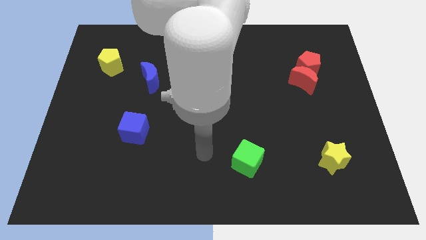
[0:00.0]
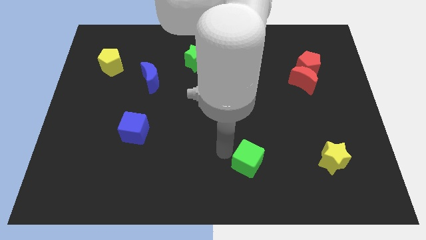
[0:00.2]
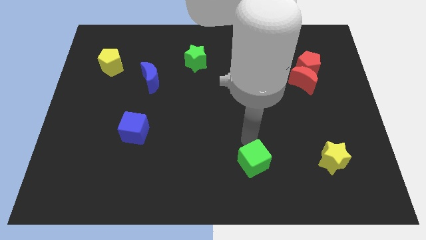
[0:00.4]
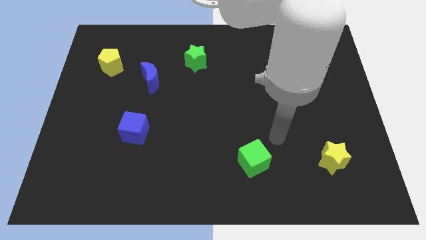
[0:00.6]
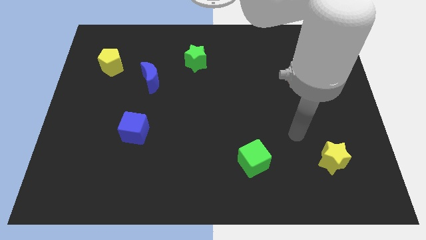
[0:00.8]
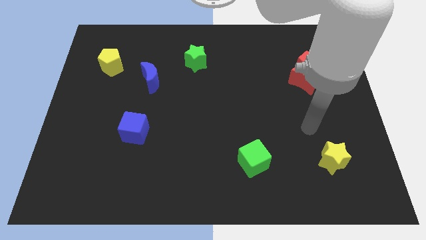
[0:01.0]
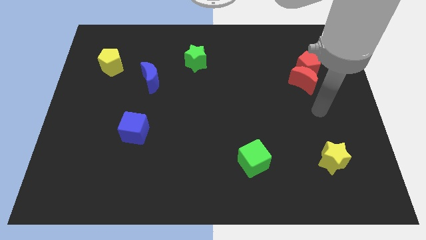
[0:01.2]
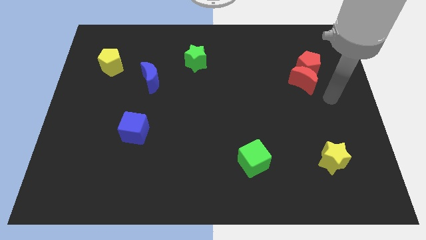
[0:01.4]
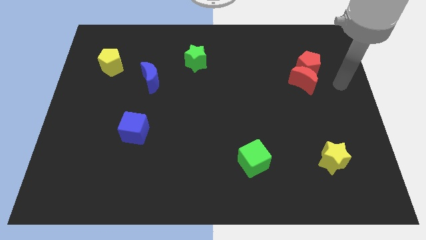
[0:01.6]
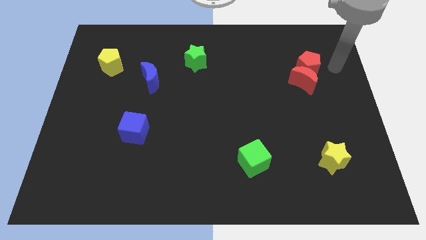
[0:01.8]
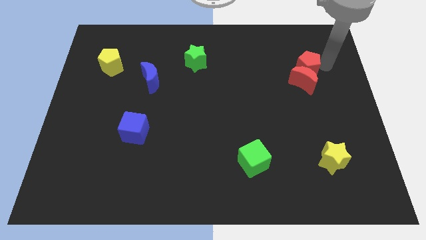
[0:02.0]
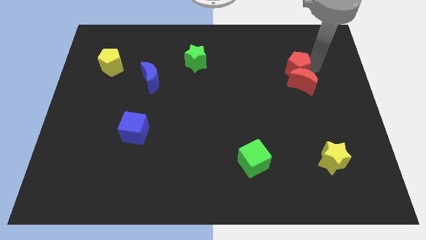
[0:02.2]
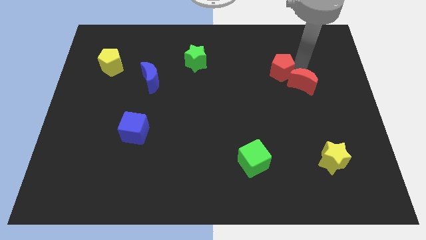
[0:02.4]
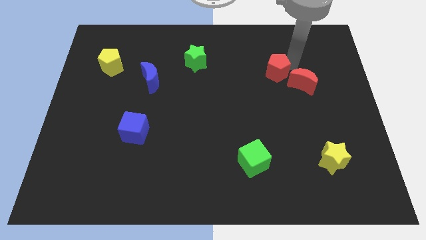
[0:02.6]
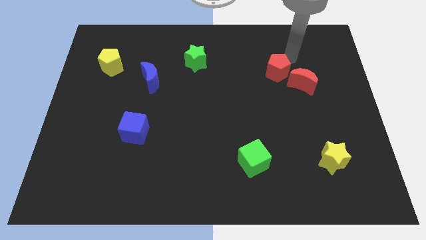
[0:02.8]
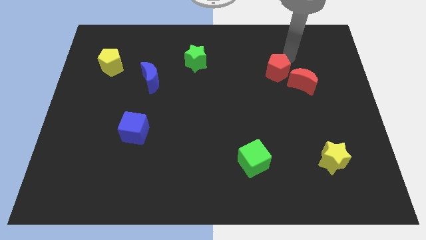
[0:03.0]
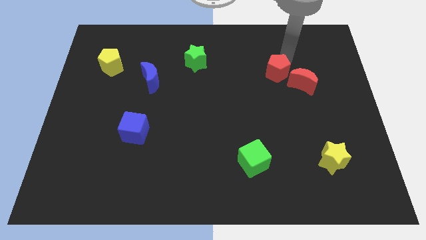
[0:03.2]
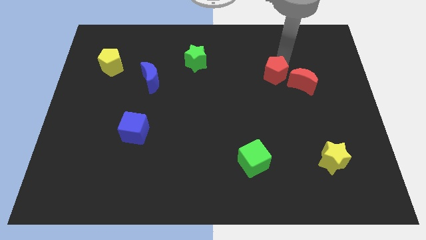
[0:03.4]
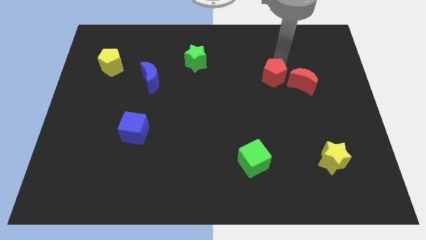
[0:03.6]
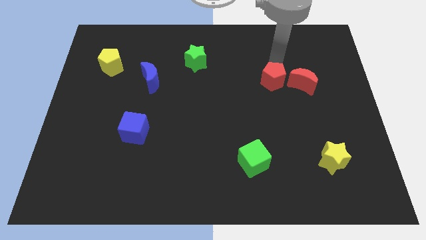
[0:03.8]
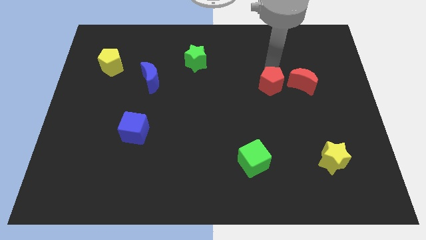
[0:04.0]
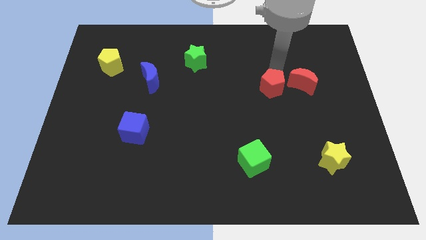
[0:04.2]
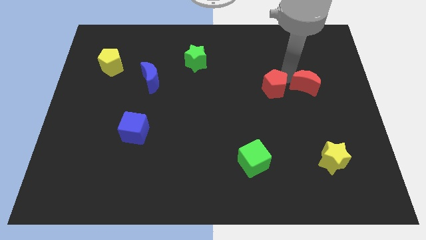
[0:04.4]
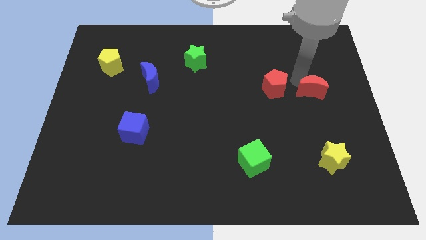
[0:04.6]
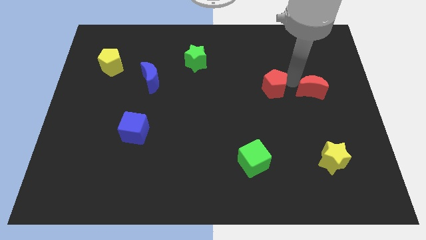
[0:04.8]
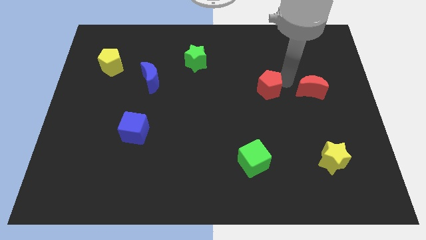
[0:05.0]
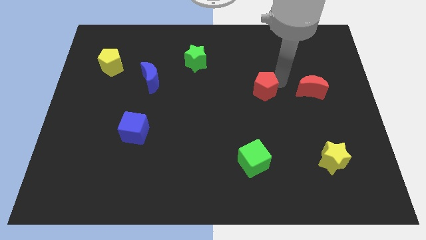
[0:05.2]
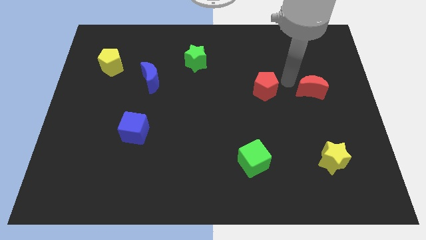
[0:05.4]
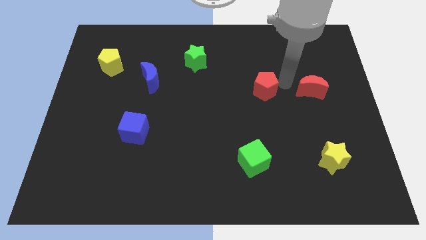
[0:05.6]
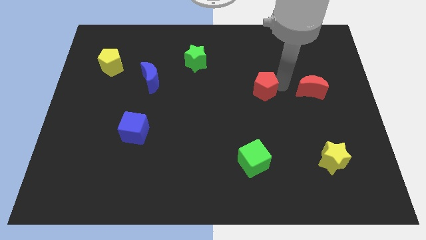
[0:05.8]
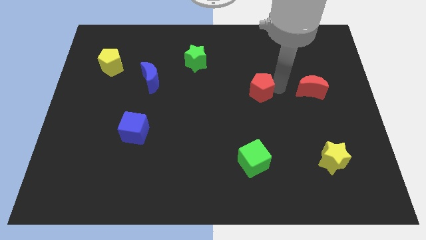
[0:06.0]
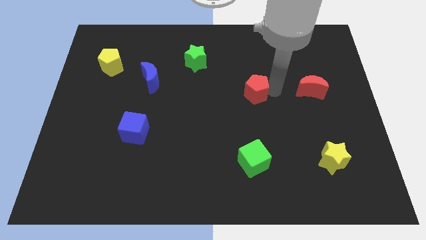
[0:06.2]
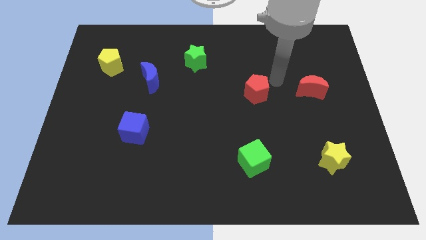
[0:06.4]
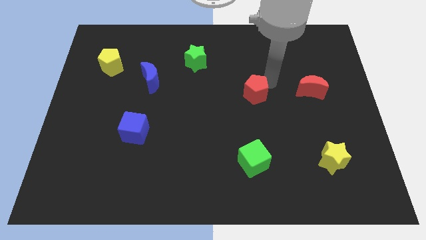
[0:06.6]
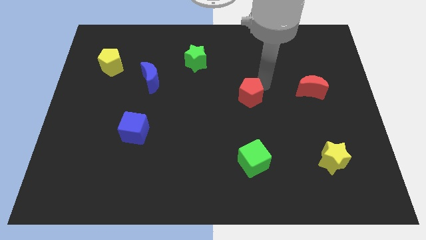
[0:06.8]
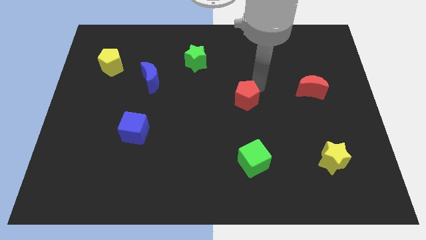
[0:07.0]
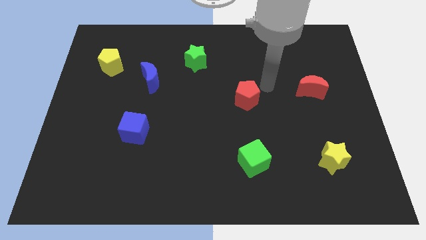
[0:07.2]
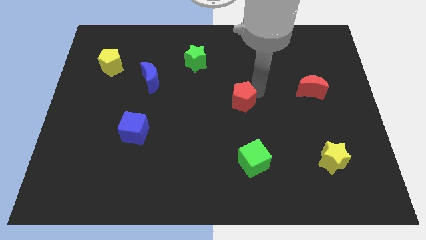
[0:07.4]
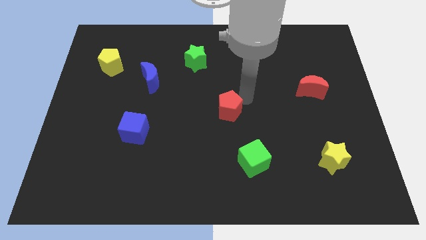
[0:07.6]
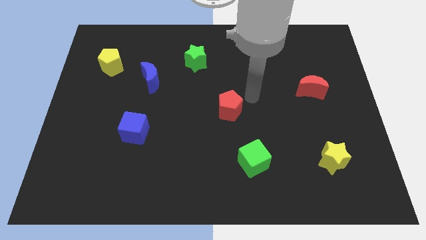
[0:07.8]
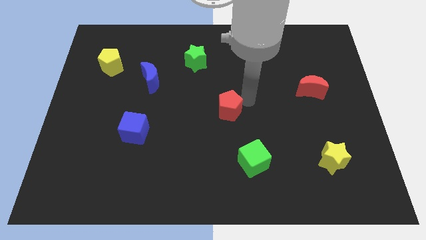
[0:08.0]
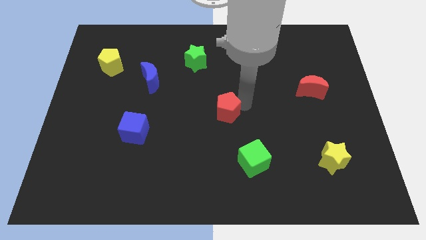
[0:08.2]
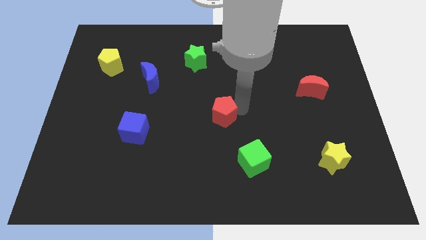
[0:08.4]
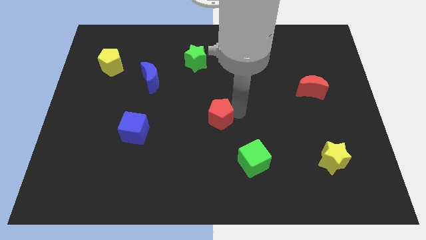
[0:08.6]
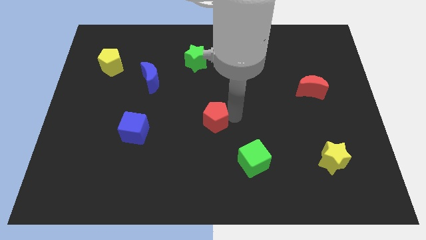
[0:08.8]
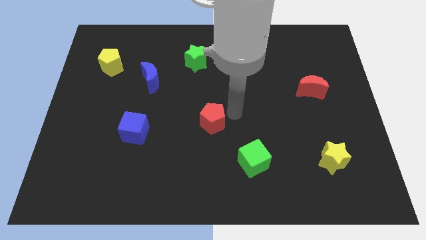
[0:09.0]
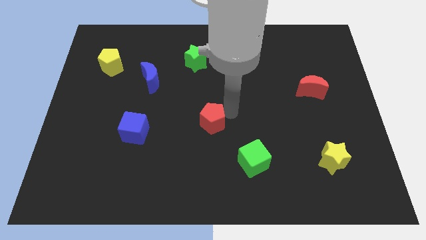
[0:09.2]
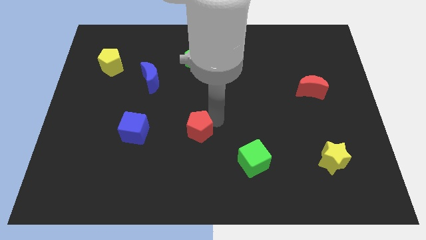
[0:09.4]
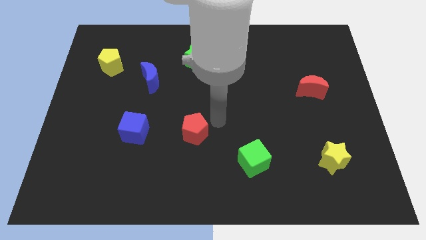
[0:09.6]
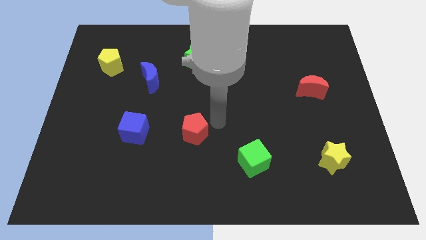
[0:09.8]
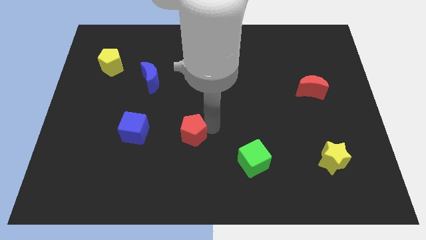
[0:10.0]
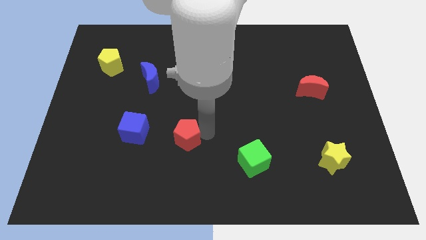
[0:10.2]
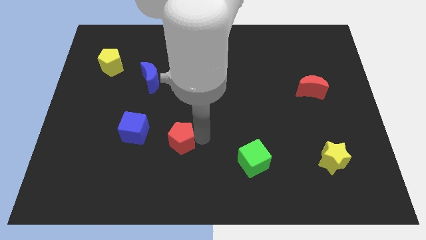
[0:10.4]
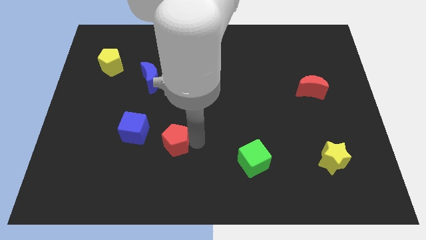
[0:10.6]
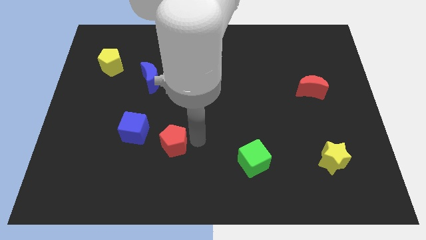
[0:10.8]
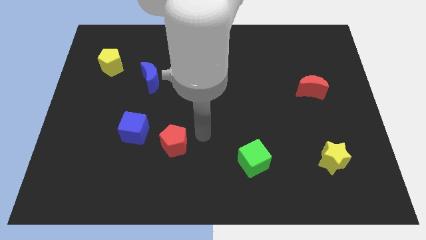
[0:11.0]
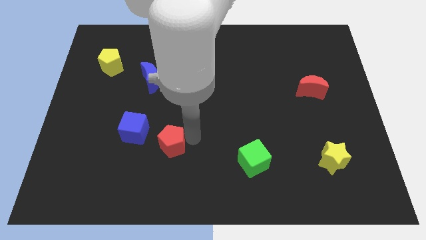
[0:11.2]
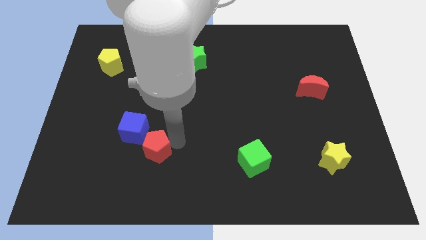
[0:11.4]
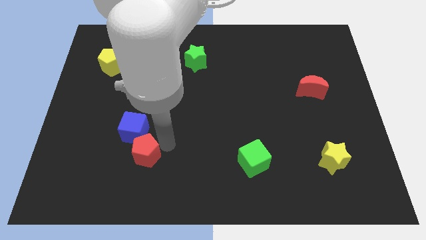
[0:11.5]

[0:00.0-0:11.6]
put the red pentagon to the bottom of the blue cube

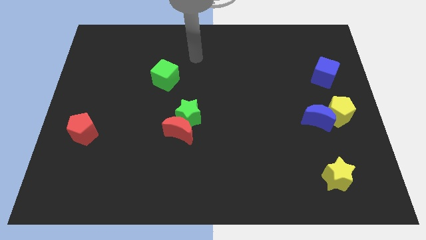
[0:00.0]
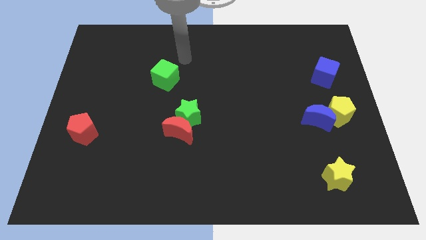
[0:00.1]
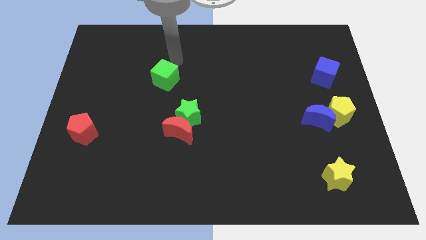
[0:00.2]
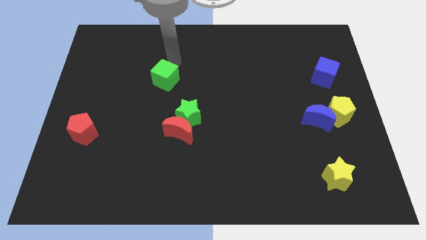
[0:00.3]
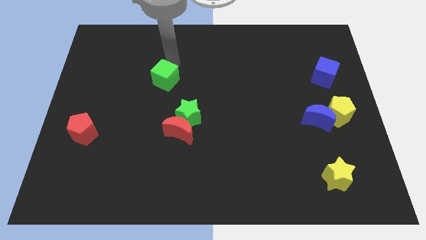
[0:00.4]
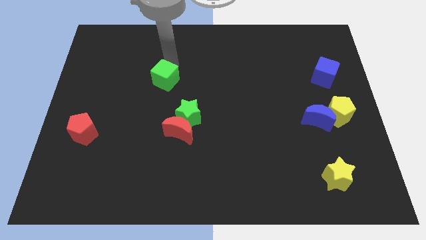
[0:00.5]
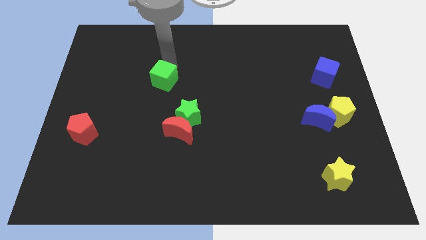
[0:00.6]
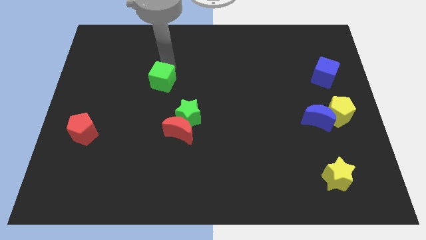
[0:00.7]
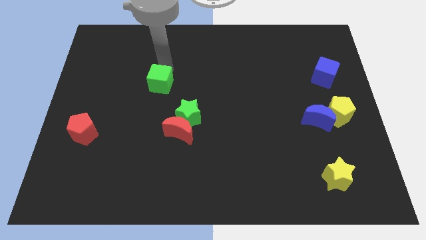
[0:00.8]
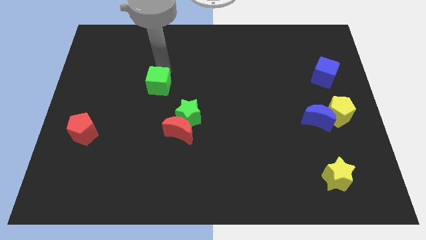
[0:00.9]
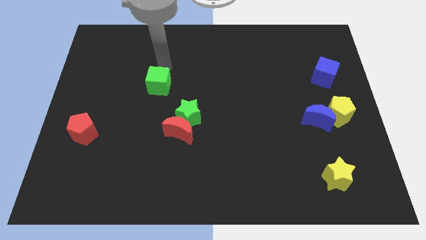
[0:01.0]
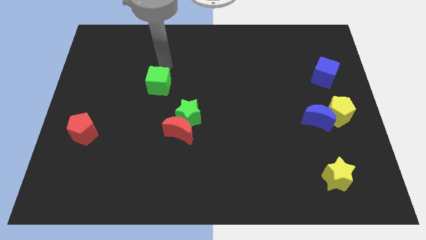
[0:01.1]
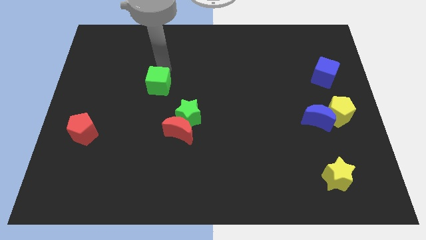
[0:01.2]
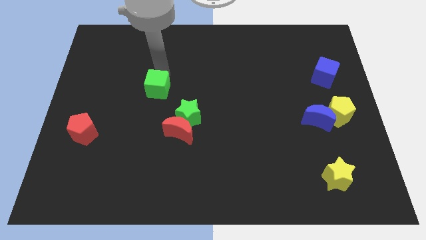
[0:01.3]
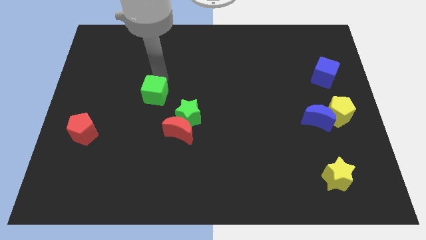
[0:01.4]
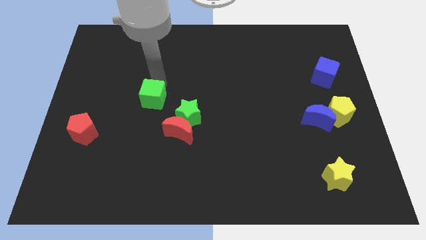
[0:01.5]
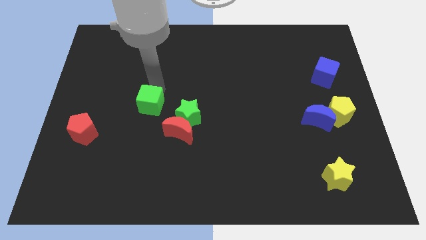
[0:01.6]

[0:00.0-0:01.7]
push the green cube just left of the green star
